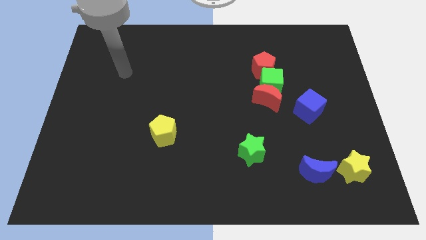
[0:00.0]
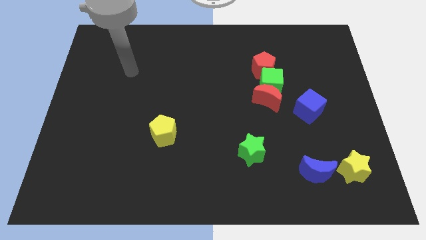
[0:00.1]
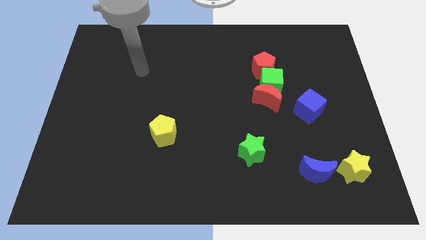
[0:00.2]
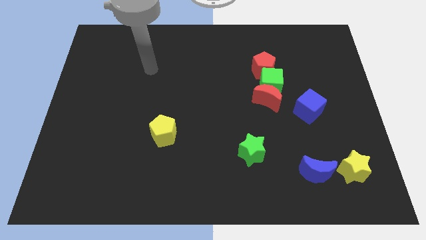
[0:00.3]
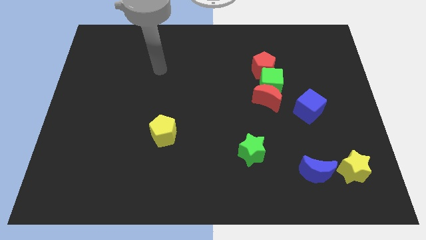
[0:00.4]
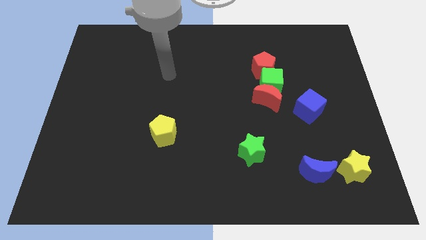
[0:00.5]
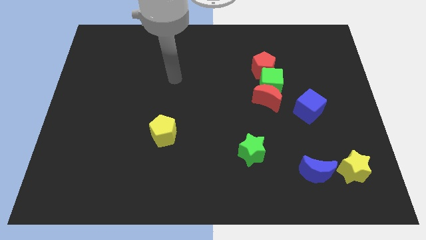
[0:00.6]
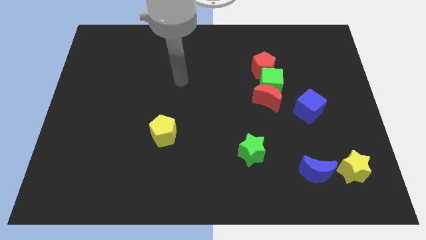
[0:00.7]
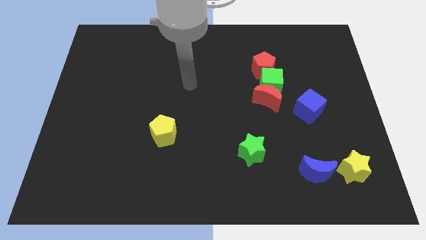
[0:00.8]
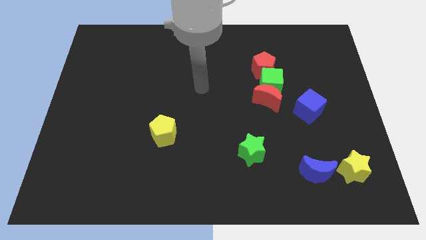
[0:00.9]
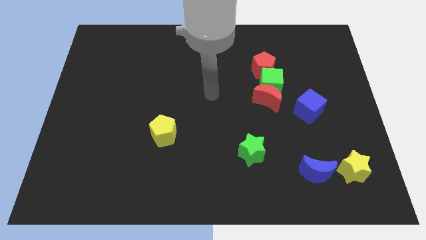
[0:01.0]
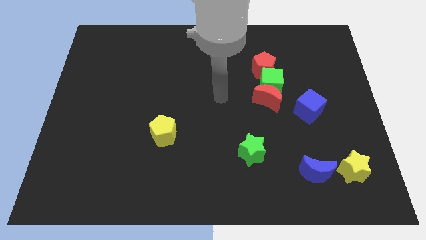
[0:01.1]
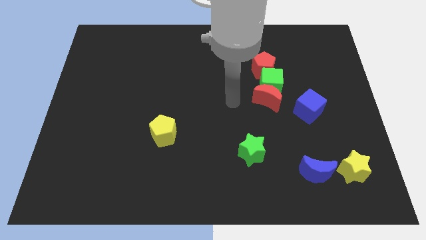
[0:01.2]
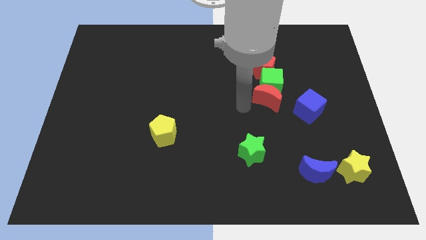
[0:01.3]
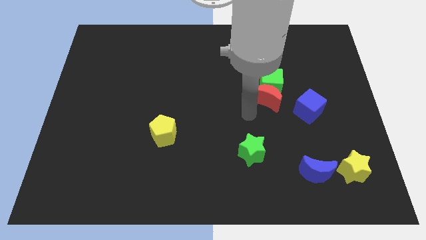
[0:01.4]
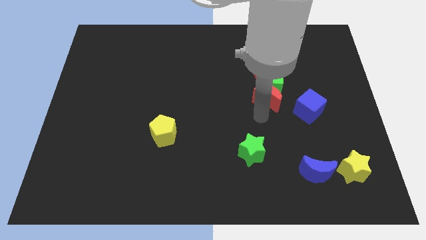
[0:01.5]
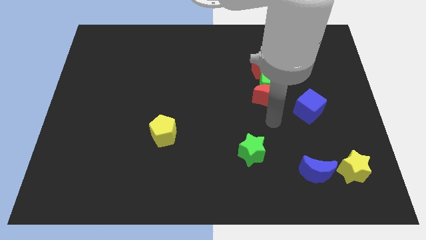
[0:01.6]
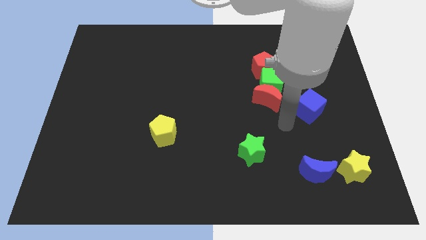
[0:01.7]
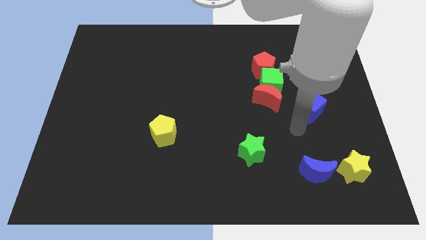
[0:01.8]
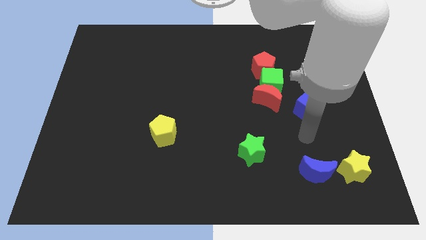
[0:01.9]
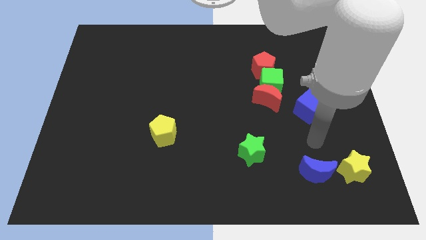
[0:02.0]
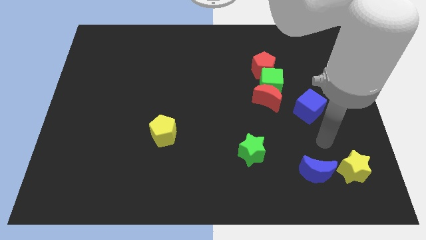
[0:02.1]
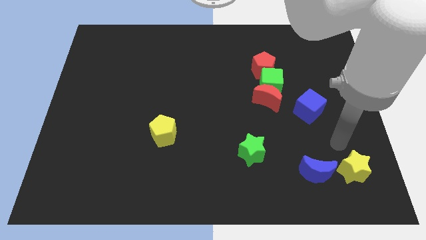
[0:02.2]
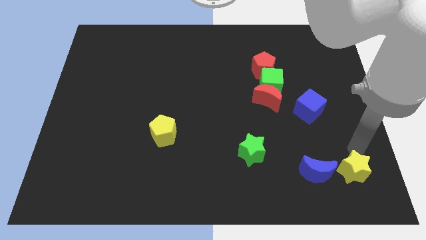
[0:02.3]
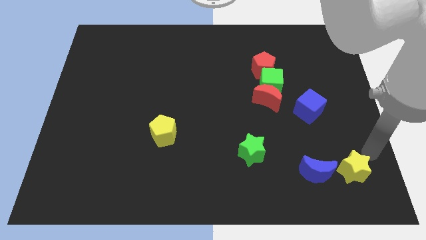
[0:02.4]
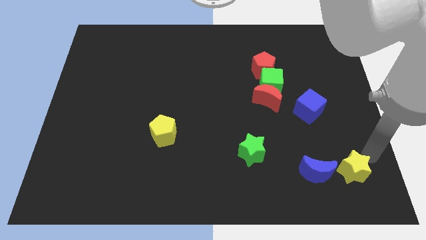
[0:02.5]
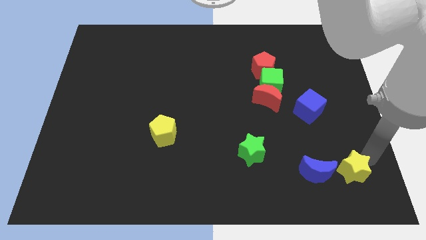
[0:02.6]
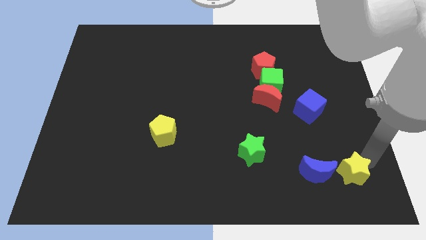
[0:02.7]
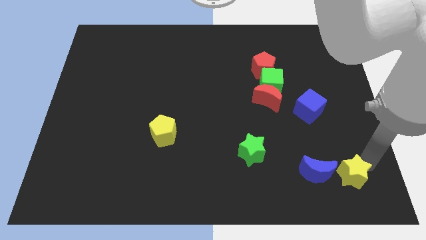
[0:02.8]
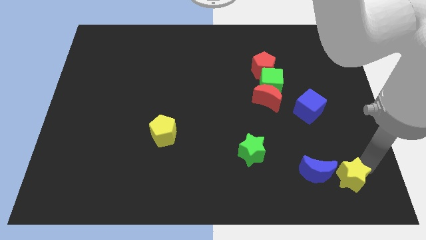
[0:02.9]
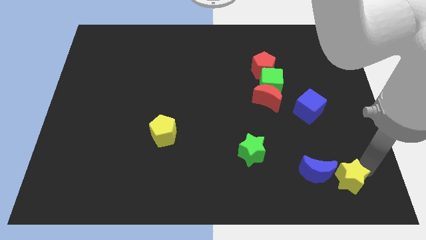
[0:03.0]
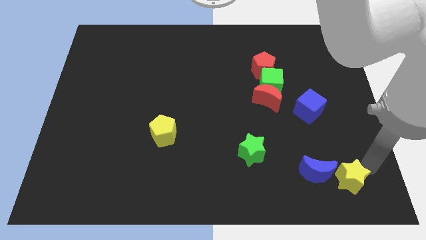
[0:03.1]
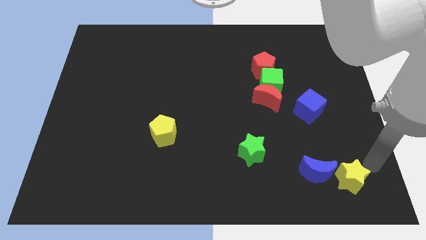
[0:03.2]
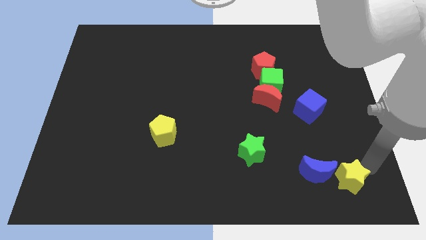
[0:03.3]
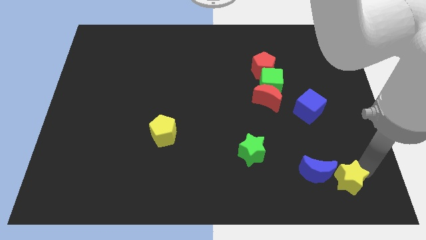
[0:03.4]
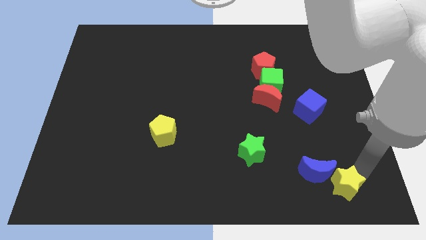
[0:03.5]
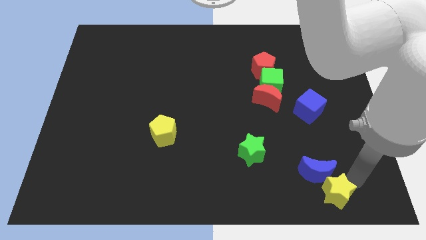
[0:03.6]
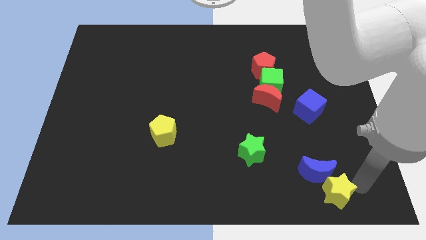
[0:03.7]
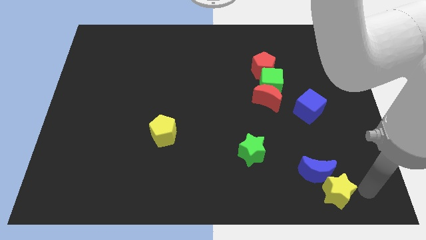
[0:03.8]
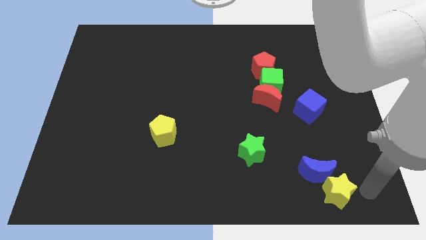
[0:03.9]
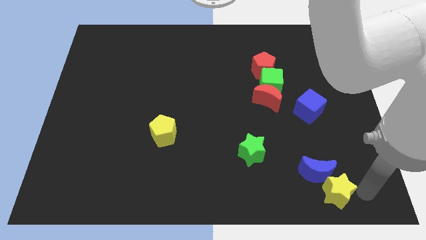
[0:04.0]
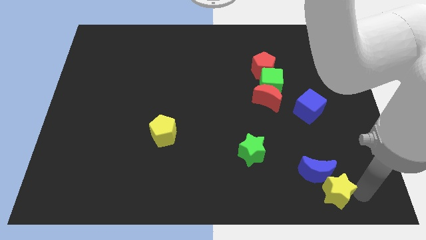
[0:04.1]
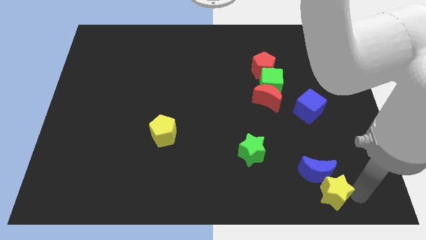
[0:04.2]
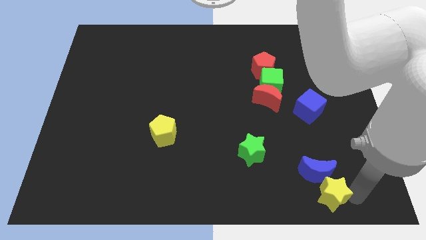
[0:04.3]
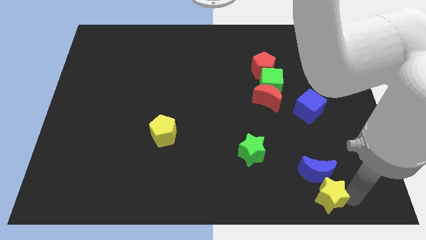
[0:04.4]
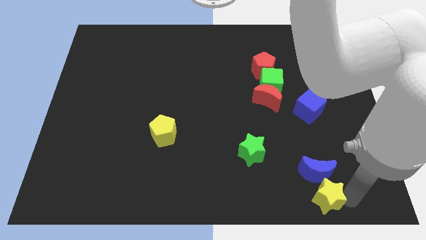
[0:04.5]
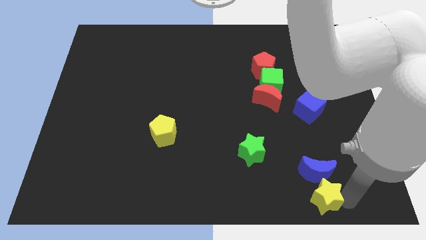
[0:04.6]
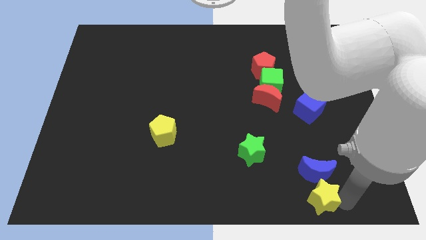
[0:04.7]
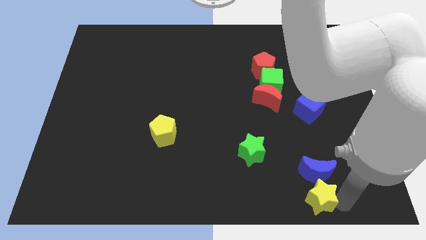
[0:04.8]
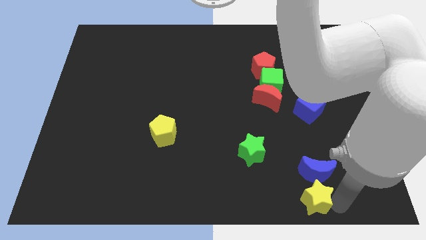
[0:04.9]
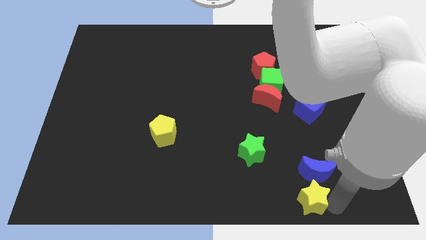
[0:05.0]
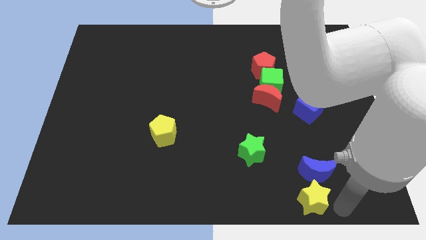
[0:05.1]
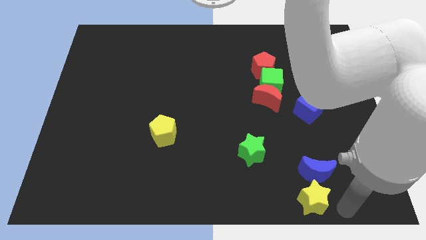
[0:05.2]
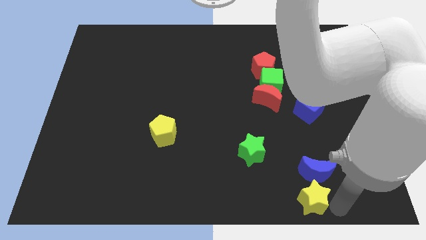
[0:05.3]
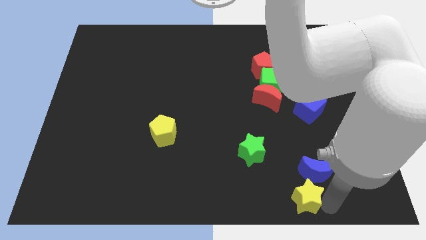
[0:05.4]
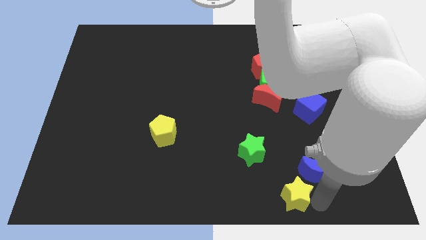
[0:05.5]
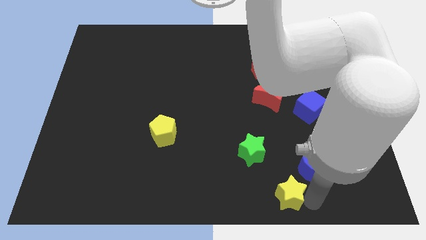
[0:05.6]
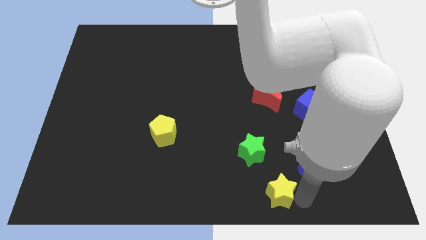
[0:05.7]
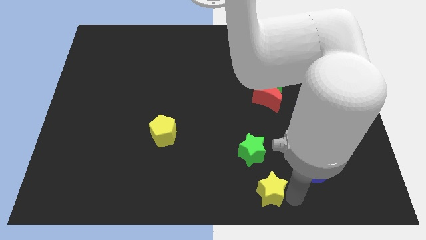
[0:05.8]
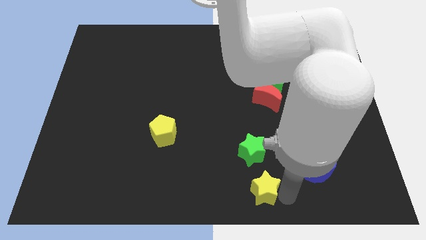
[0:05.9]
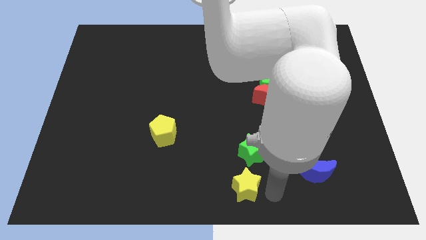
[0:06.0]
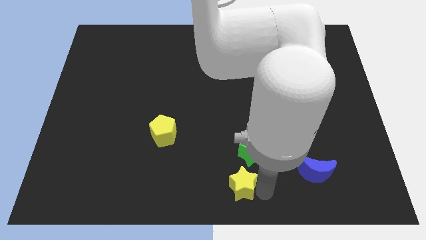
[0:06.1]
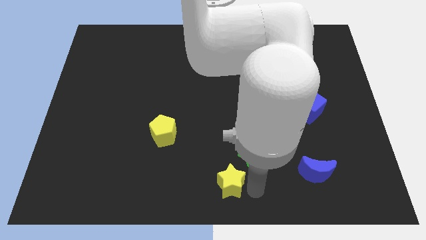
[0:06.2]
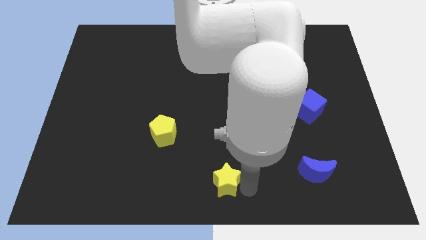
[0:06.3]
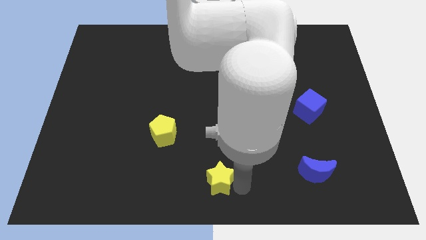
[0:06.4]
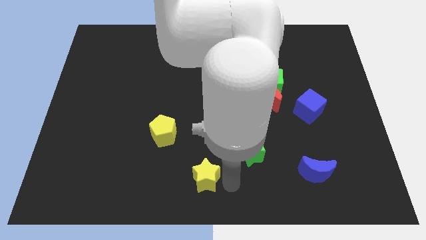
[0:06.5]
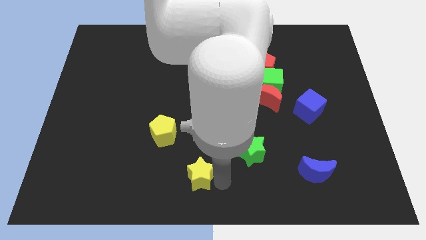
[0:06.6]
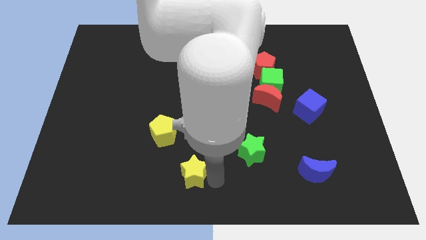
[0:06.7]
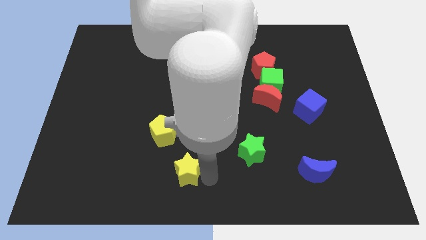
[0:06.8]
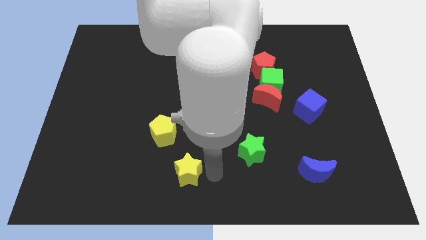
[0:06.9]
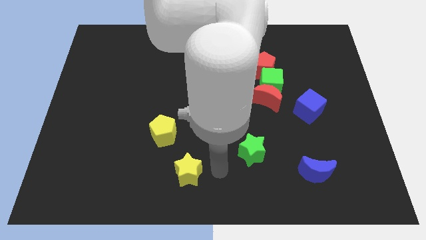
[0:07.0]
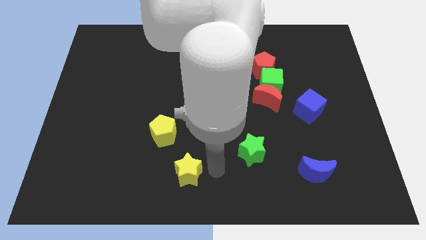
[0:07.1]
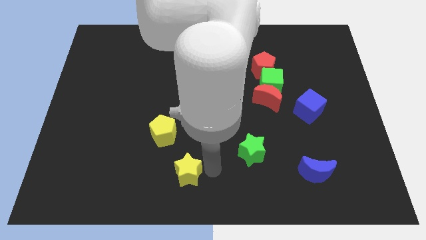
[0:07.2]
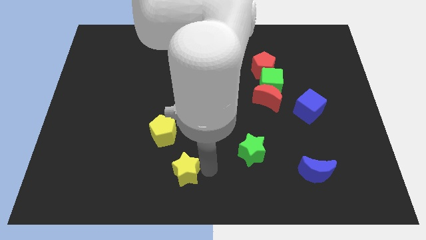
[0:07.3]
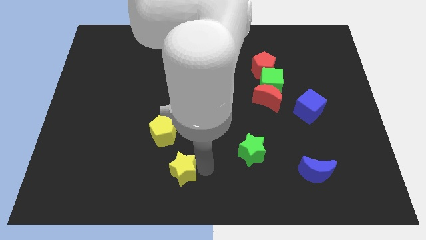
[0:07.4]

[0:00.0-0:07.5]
put the yellow star to the bottom side of the yellow pentagon
